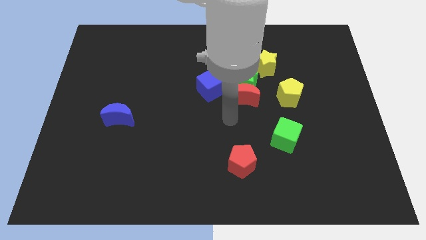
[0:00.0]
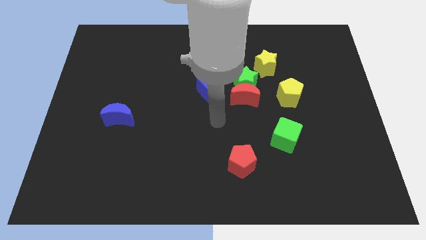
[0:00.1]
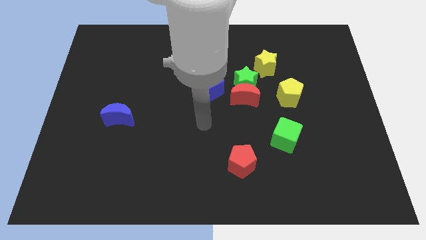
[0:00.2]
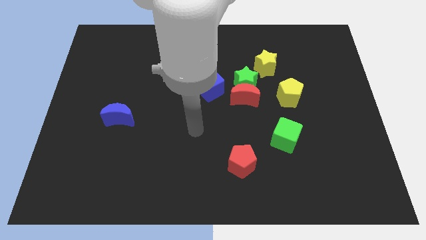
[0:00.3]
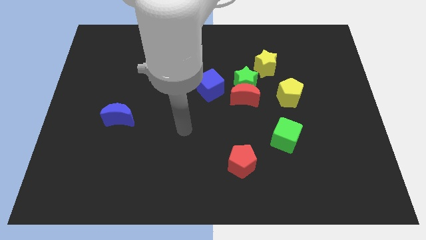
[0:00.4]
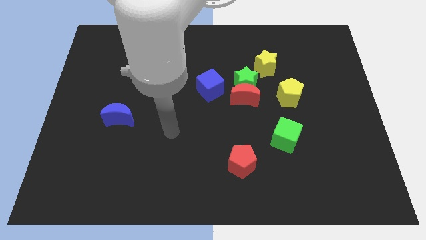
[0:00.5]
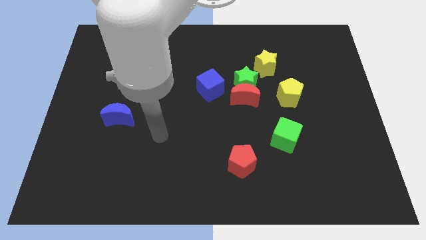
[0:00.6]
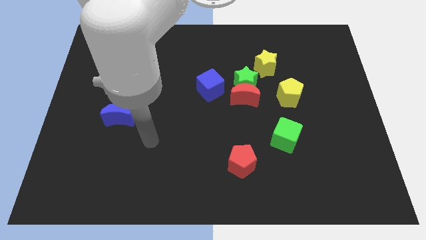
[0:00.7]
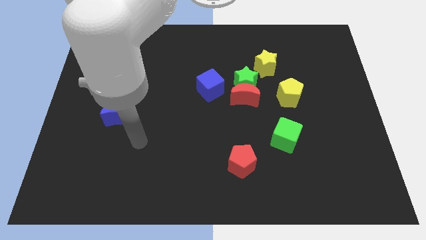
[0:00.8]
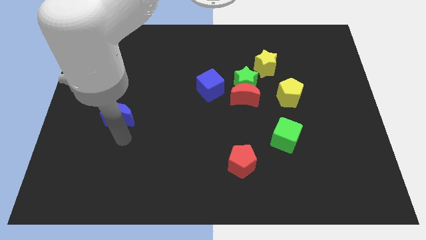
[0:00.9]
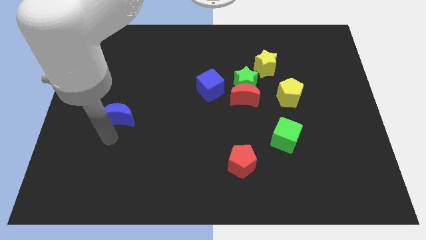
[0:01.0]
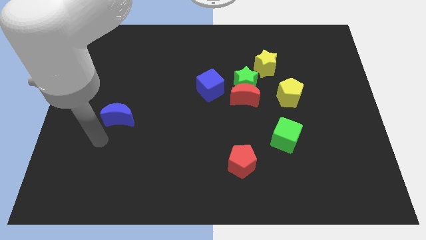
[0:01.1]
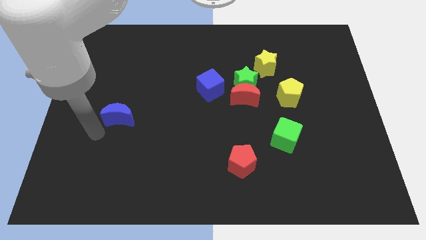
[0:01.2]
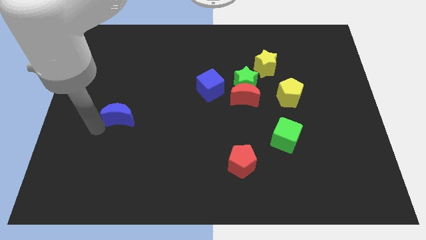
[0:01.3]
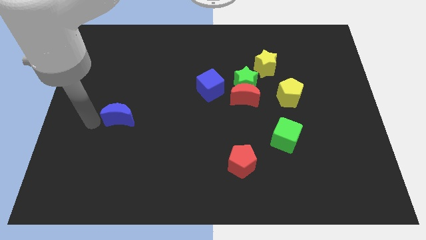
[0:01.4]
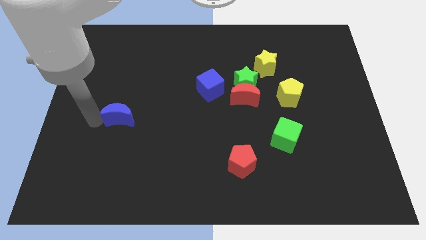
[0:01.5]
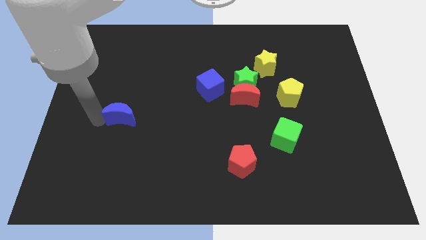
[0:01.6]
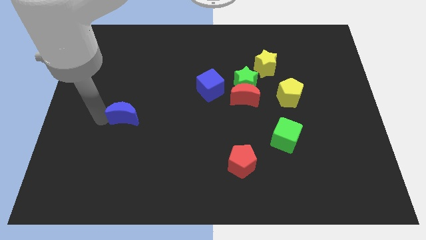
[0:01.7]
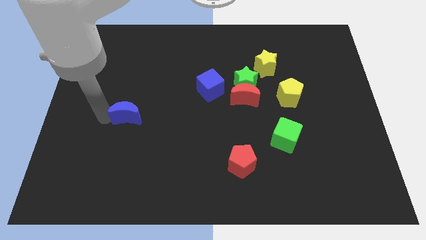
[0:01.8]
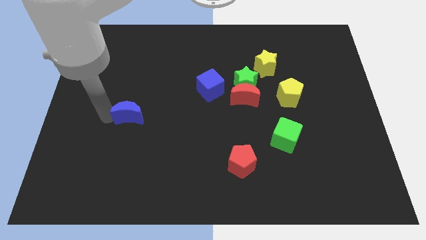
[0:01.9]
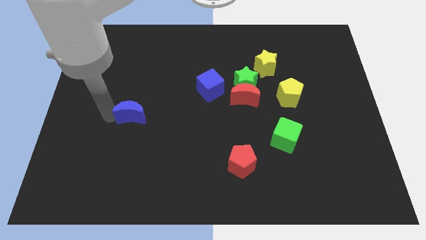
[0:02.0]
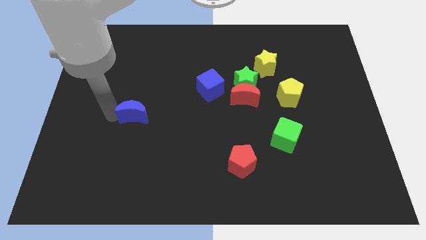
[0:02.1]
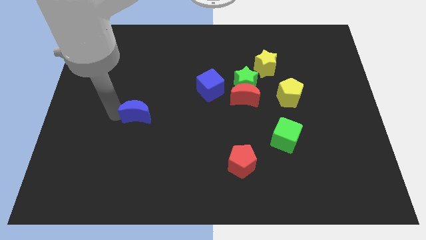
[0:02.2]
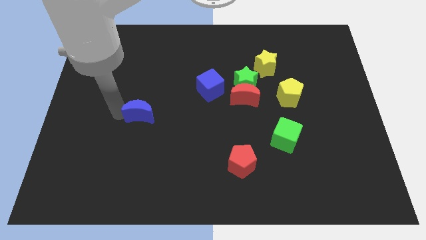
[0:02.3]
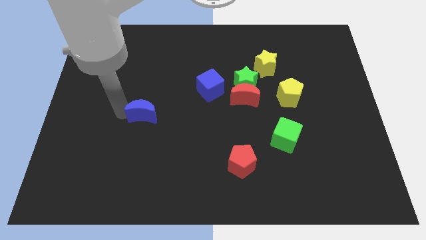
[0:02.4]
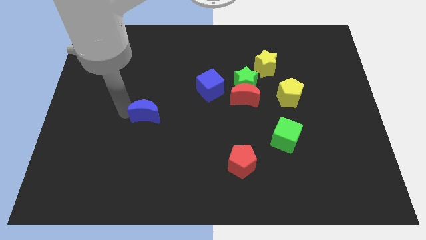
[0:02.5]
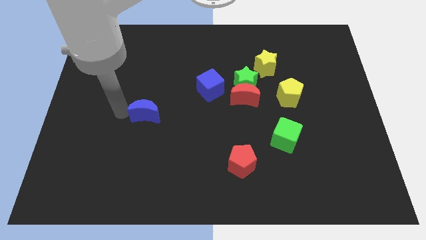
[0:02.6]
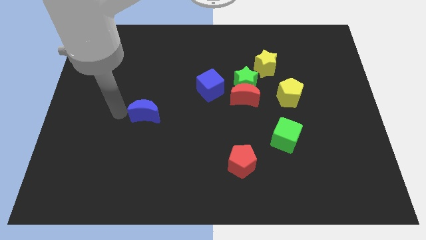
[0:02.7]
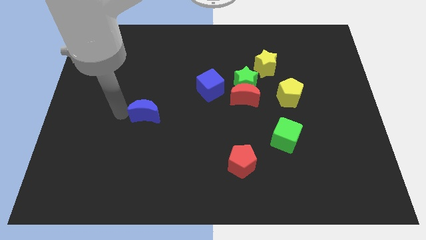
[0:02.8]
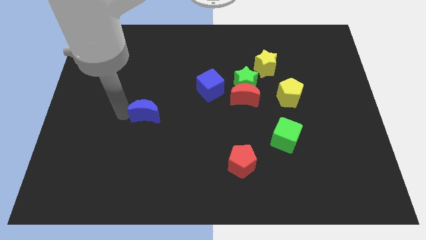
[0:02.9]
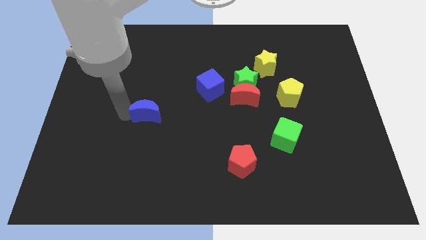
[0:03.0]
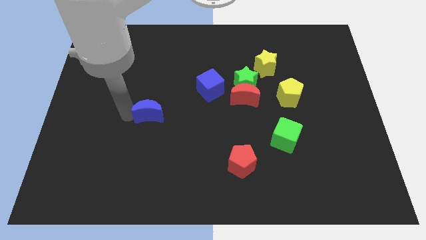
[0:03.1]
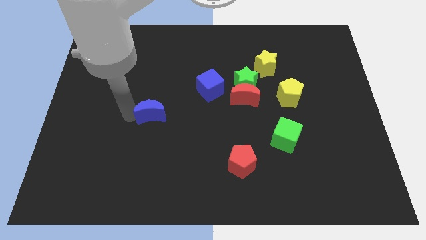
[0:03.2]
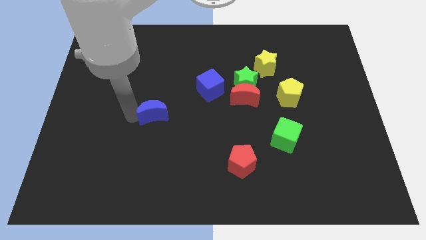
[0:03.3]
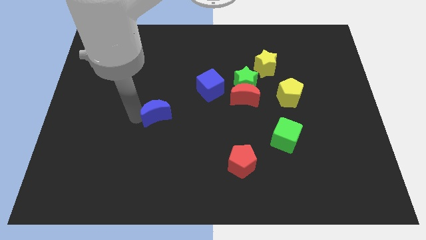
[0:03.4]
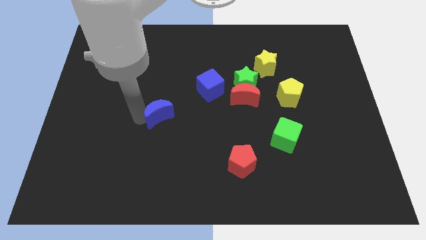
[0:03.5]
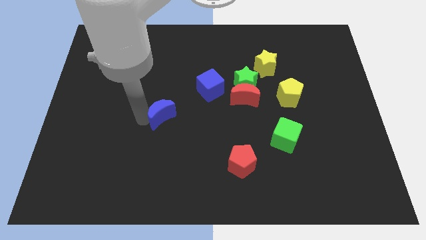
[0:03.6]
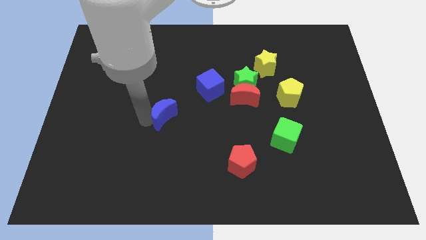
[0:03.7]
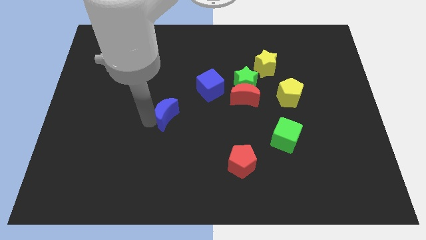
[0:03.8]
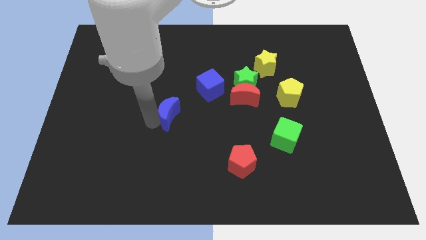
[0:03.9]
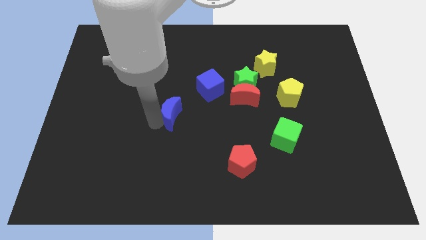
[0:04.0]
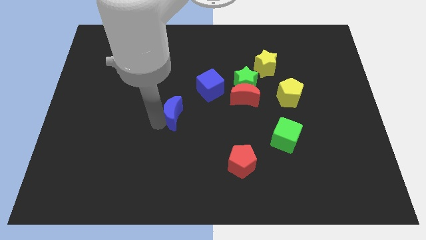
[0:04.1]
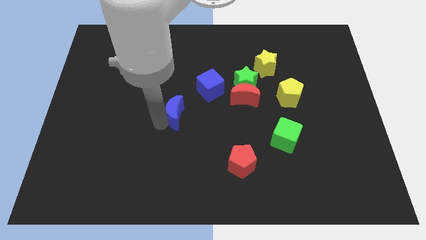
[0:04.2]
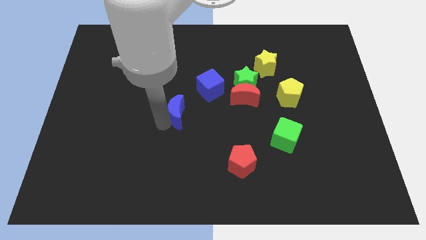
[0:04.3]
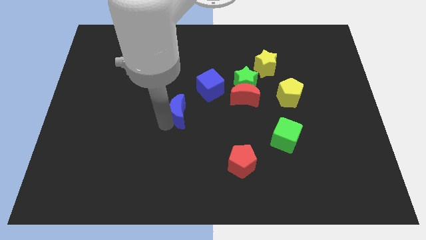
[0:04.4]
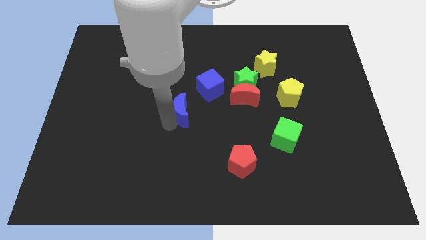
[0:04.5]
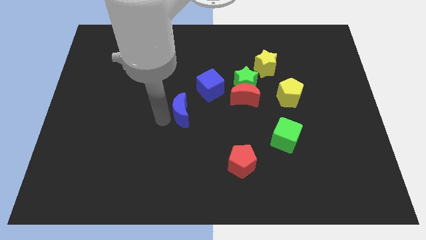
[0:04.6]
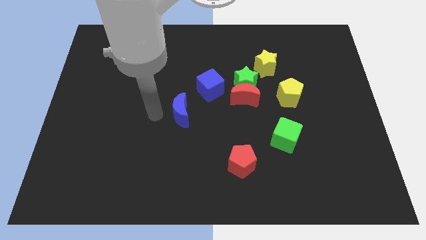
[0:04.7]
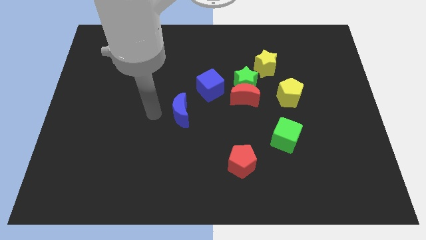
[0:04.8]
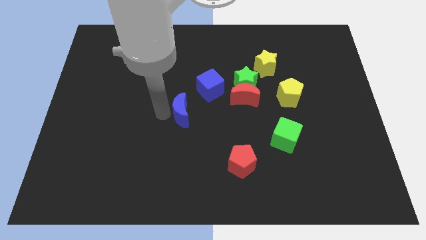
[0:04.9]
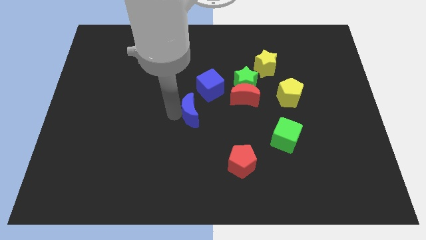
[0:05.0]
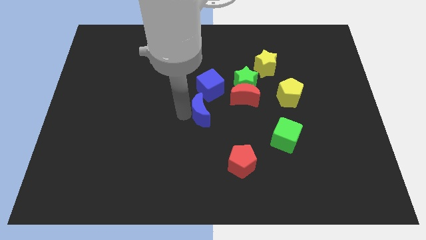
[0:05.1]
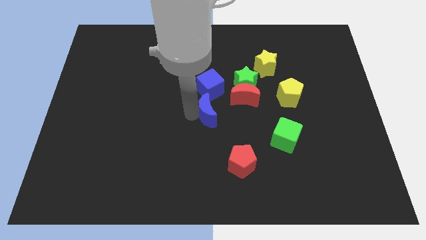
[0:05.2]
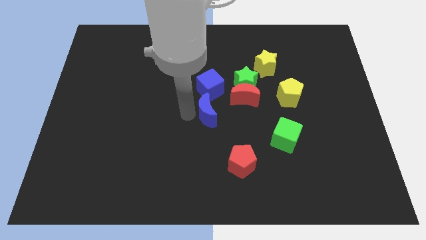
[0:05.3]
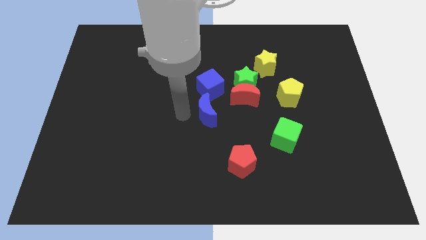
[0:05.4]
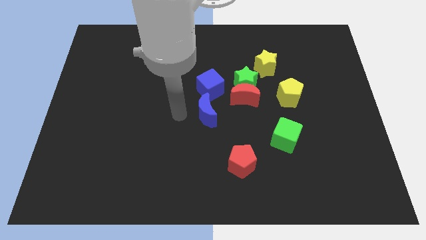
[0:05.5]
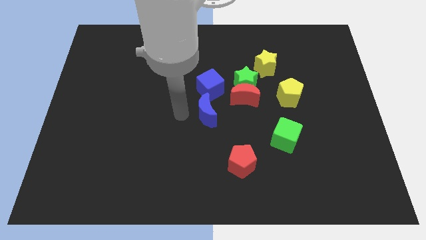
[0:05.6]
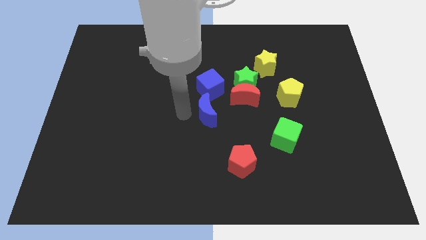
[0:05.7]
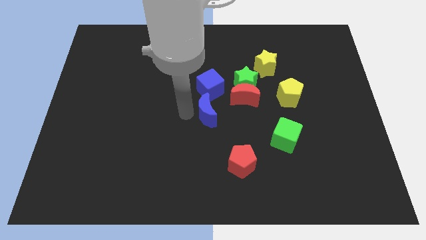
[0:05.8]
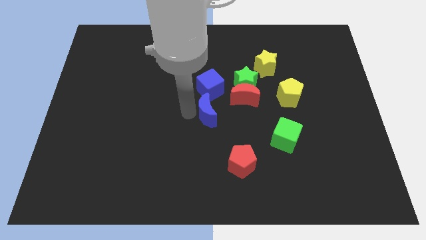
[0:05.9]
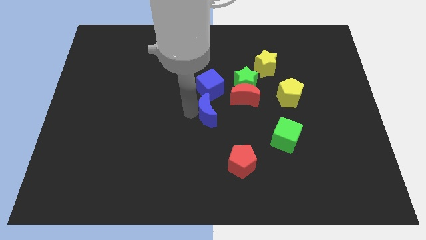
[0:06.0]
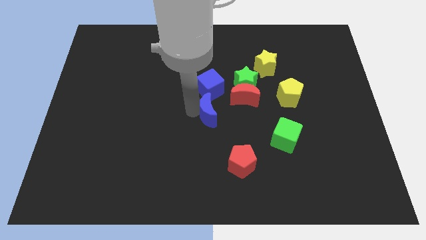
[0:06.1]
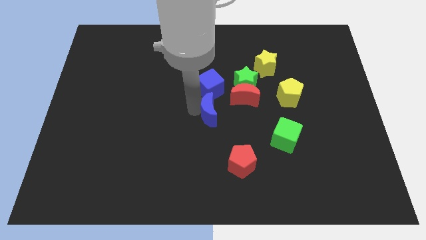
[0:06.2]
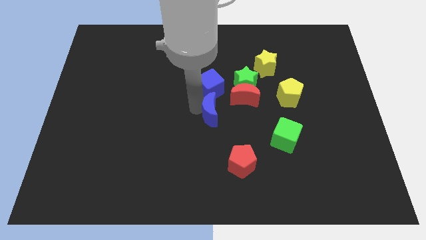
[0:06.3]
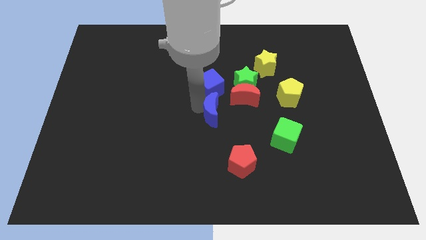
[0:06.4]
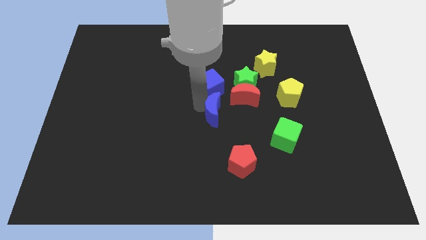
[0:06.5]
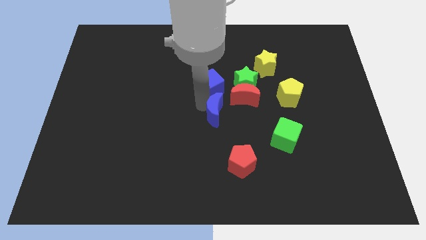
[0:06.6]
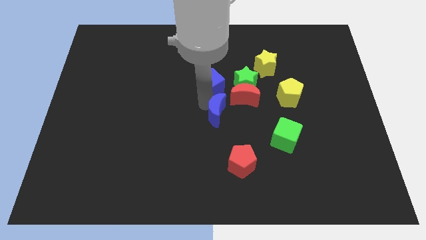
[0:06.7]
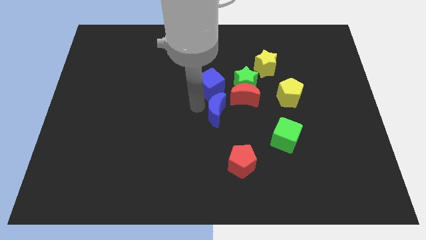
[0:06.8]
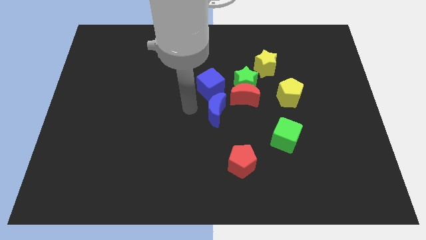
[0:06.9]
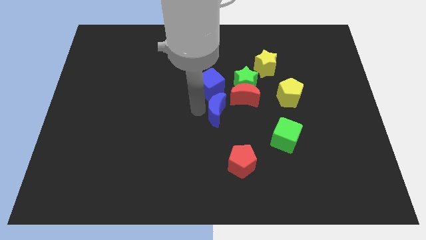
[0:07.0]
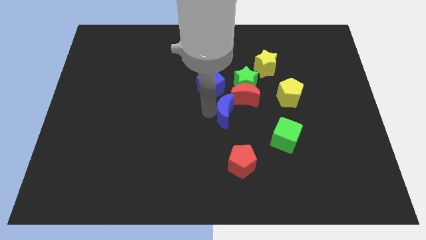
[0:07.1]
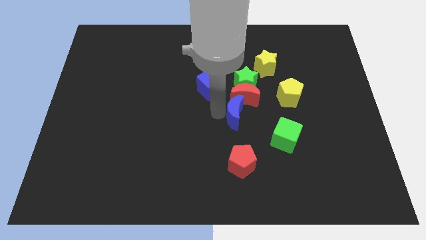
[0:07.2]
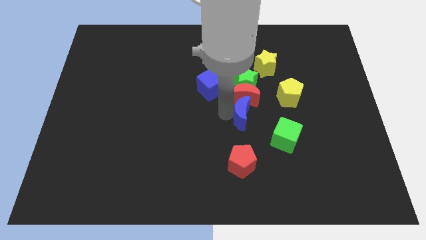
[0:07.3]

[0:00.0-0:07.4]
put the blue moon diagonally up and to the left of the green cube
